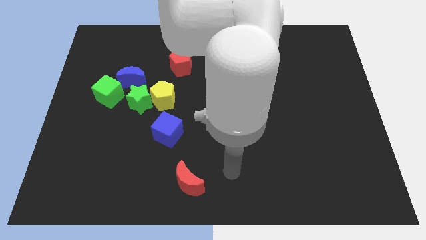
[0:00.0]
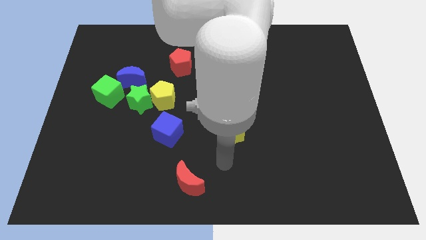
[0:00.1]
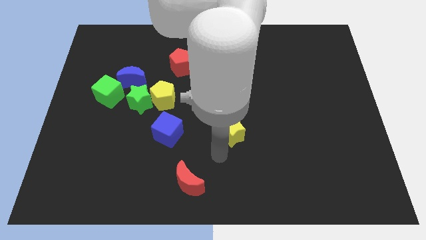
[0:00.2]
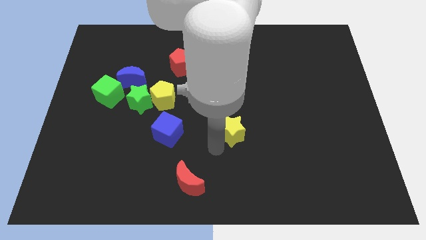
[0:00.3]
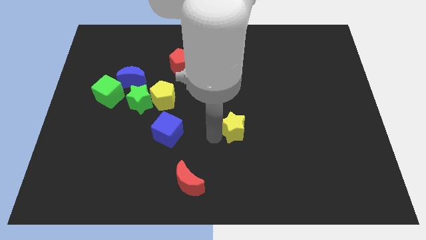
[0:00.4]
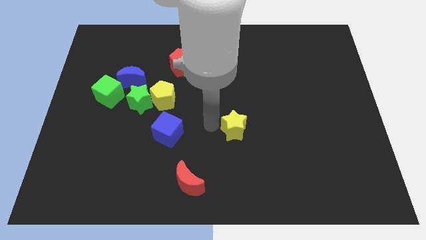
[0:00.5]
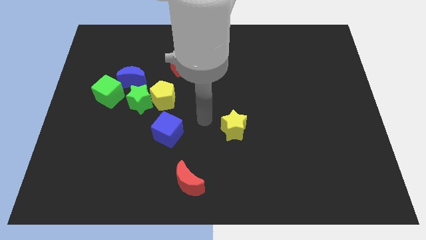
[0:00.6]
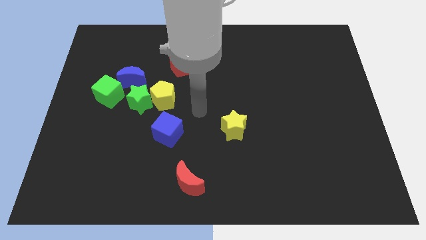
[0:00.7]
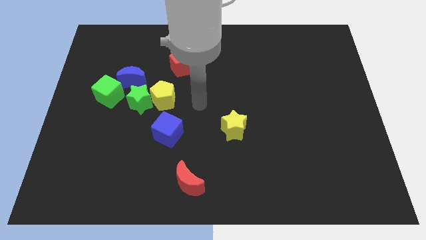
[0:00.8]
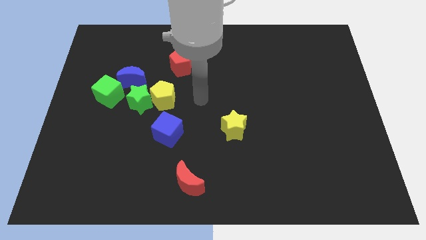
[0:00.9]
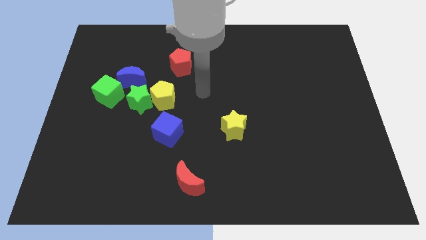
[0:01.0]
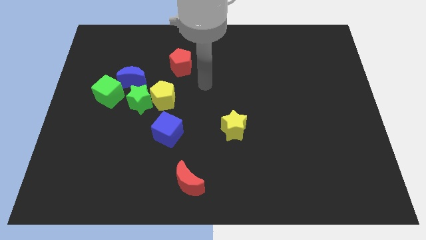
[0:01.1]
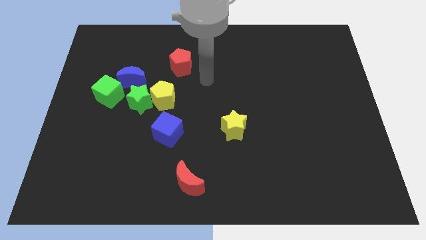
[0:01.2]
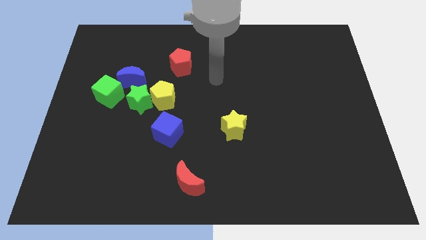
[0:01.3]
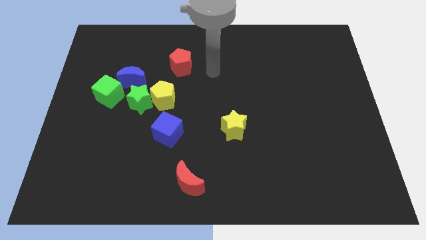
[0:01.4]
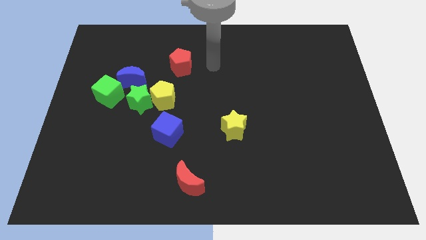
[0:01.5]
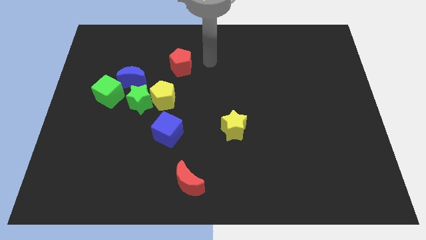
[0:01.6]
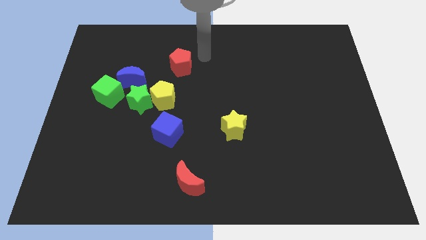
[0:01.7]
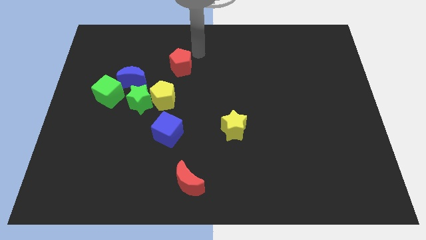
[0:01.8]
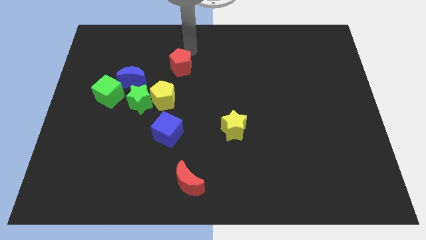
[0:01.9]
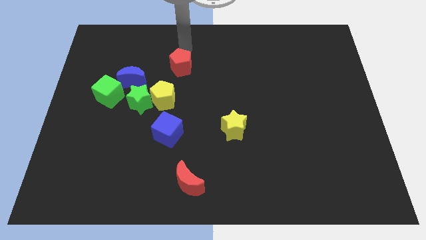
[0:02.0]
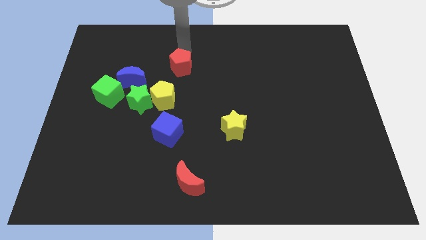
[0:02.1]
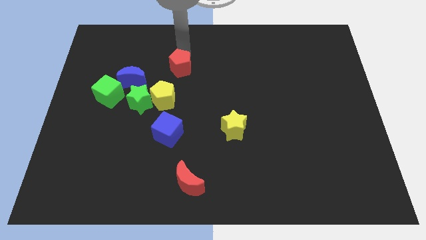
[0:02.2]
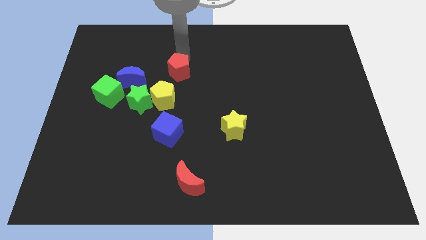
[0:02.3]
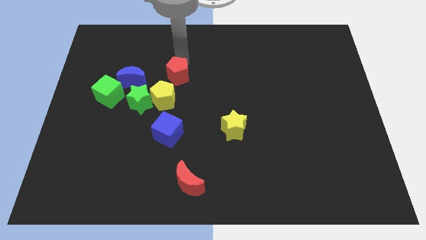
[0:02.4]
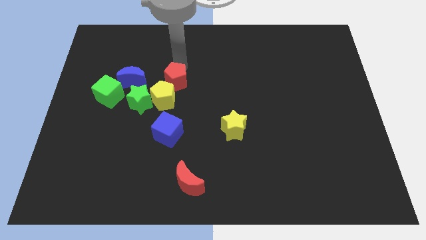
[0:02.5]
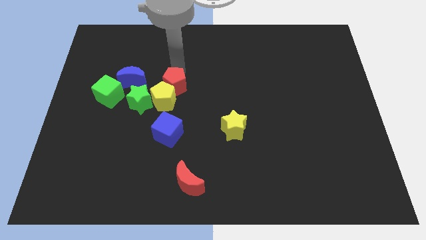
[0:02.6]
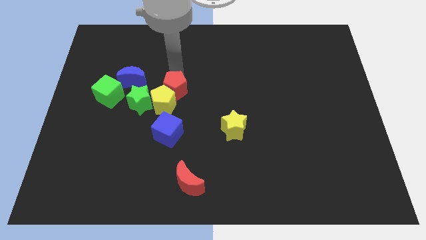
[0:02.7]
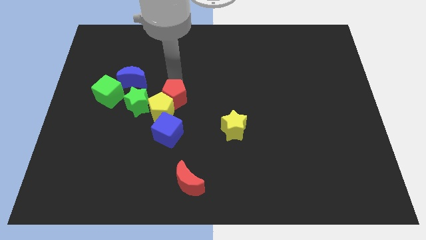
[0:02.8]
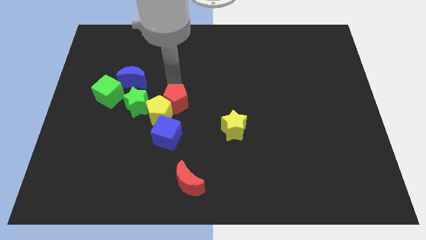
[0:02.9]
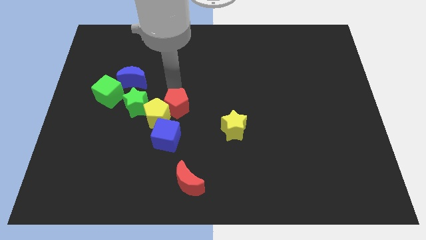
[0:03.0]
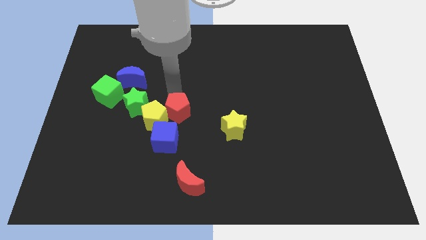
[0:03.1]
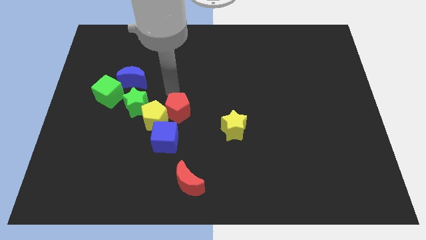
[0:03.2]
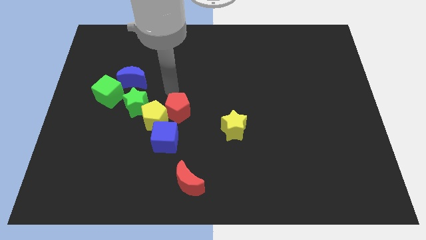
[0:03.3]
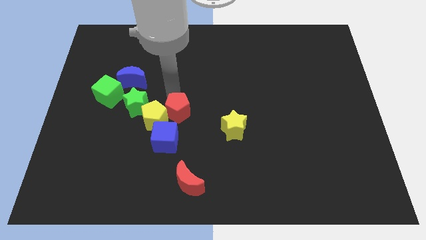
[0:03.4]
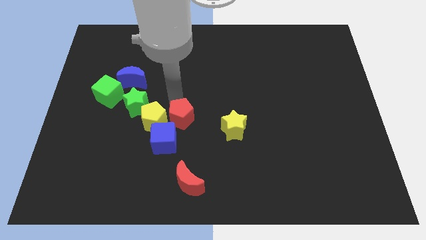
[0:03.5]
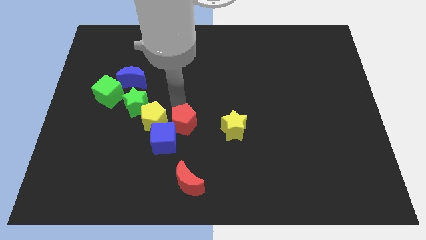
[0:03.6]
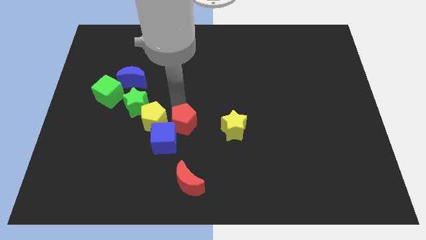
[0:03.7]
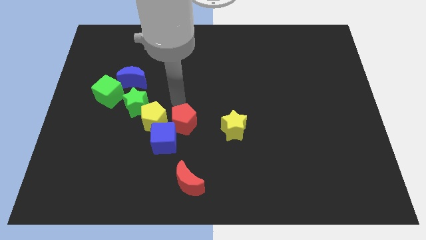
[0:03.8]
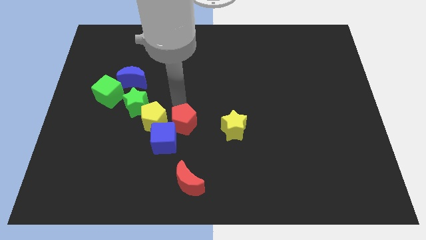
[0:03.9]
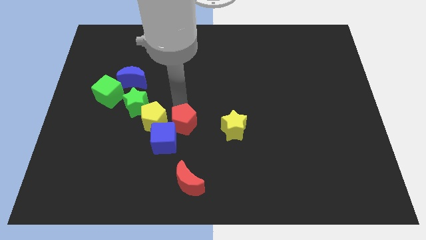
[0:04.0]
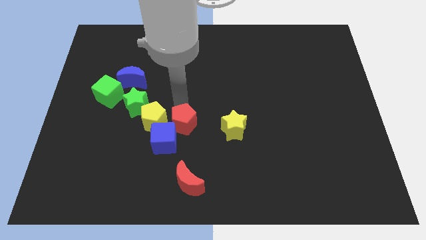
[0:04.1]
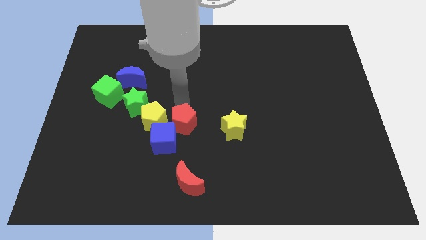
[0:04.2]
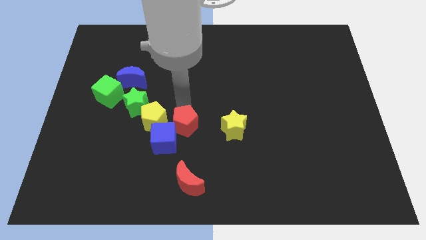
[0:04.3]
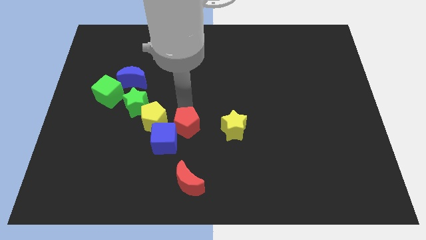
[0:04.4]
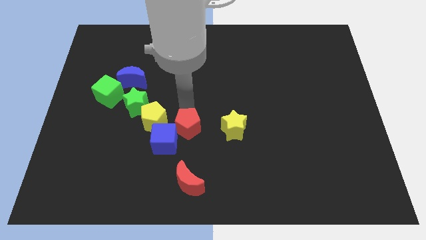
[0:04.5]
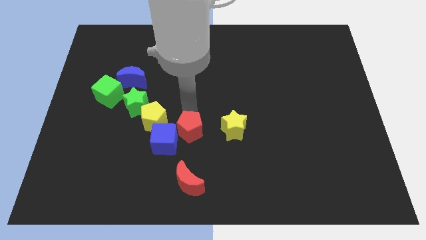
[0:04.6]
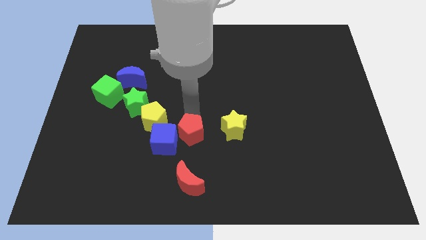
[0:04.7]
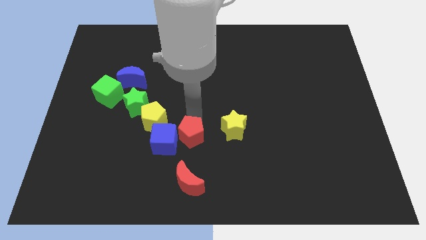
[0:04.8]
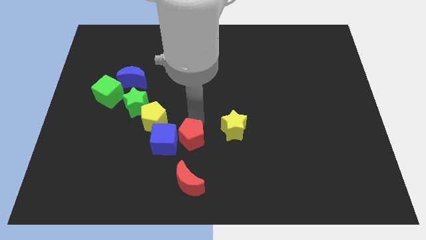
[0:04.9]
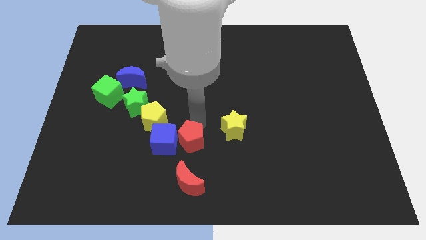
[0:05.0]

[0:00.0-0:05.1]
push the red pentagon to the bottom right side of the blue cube

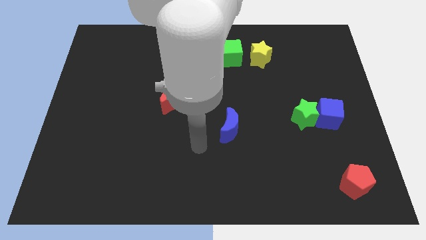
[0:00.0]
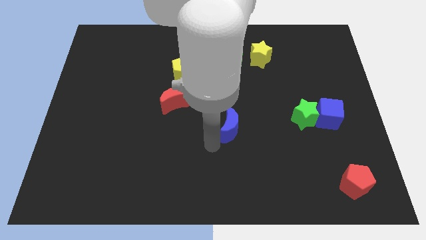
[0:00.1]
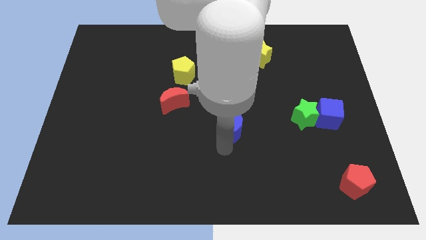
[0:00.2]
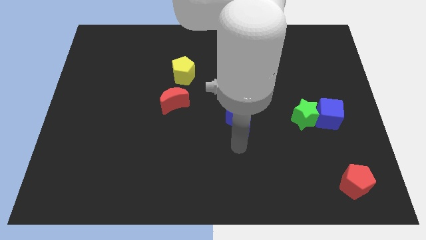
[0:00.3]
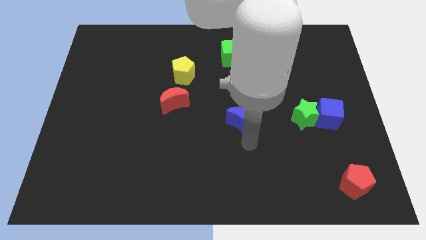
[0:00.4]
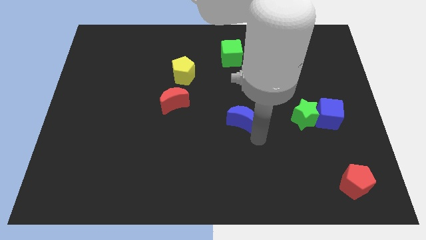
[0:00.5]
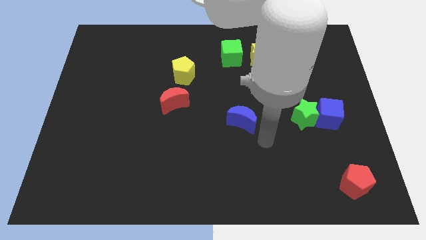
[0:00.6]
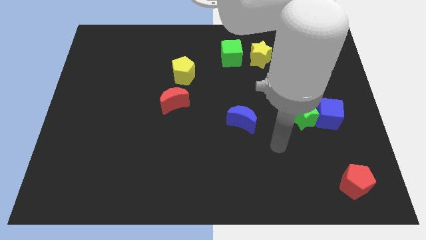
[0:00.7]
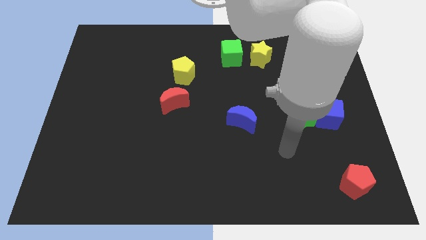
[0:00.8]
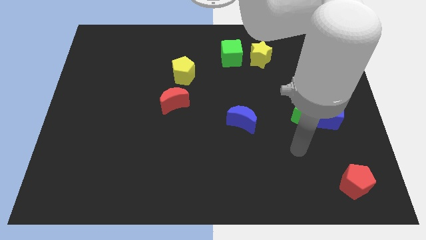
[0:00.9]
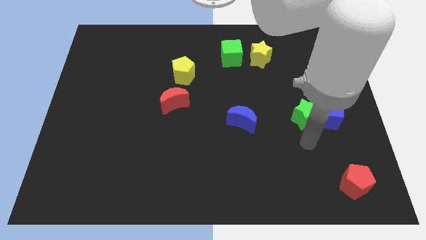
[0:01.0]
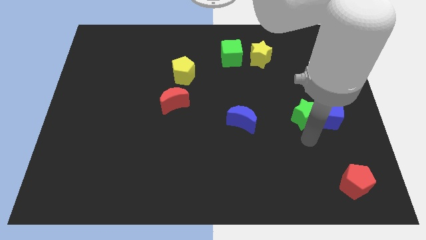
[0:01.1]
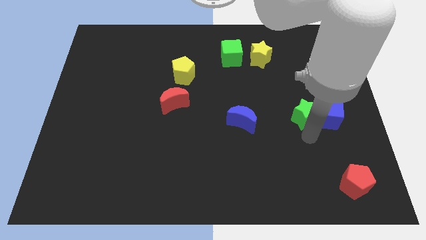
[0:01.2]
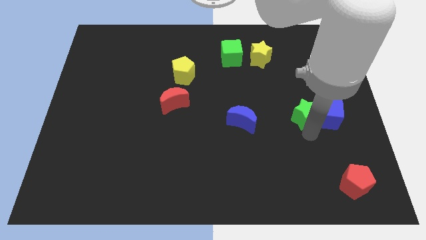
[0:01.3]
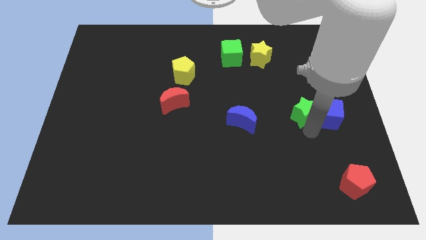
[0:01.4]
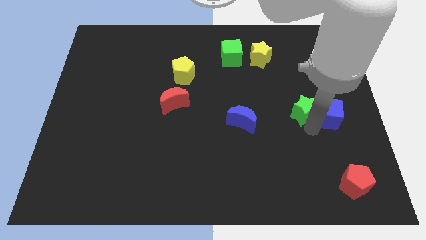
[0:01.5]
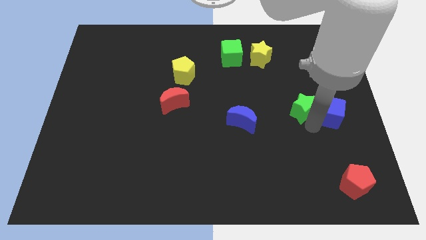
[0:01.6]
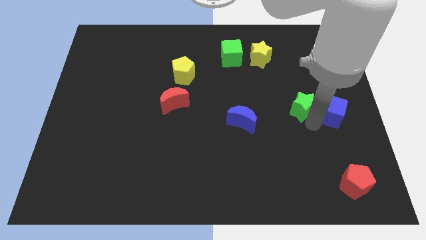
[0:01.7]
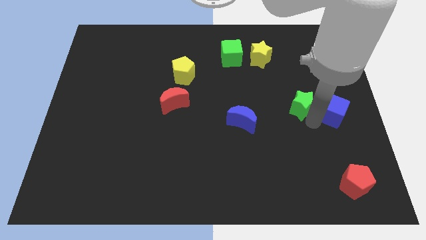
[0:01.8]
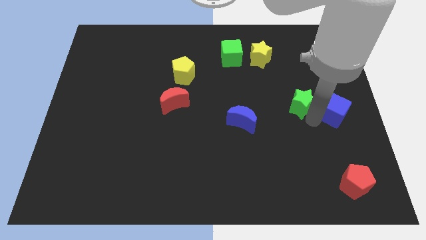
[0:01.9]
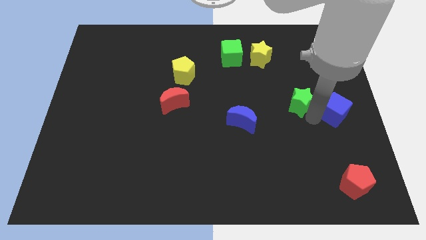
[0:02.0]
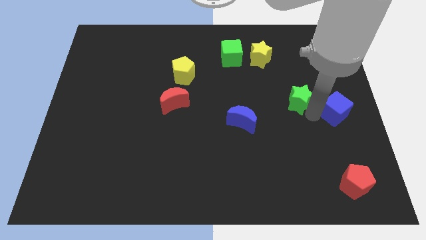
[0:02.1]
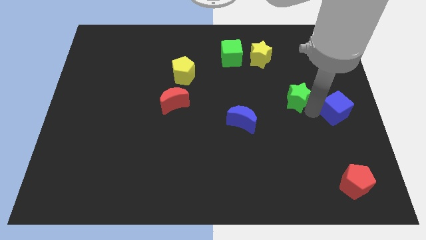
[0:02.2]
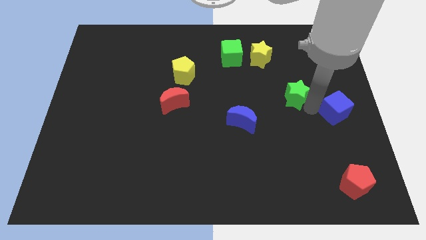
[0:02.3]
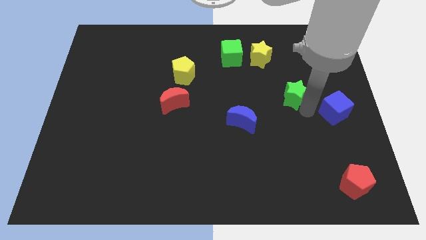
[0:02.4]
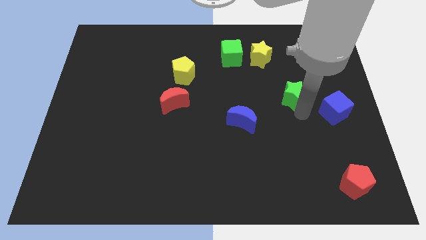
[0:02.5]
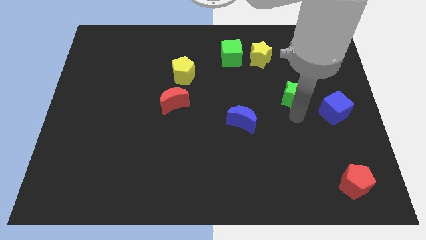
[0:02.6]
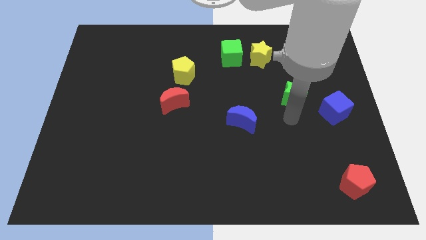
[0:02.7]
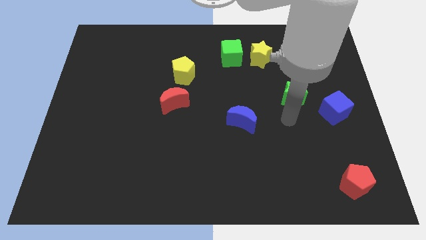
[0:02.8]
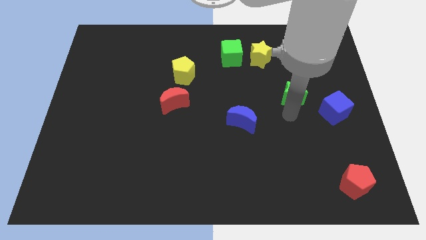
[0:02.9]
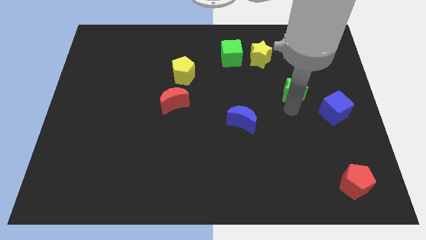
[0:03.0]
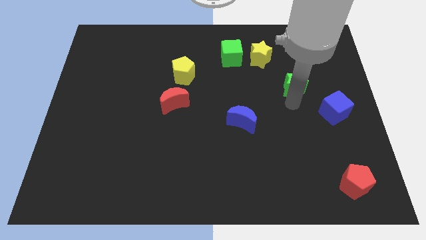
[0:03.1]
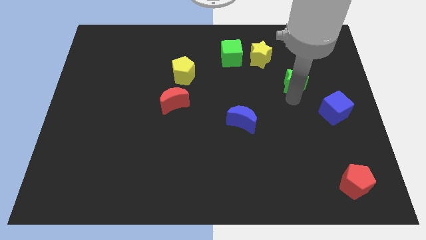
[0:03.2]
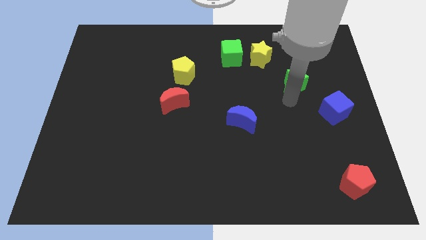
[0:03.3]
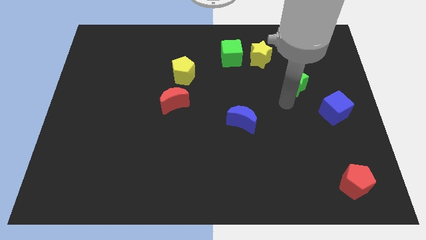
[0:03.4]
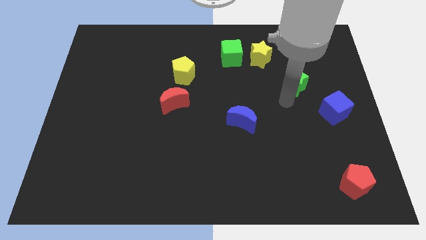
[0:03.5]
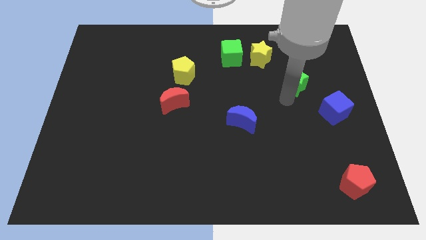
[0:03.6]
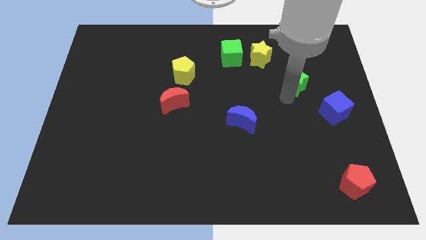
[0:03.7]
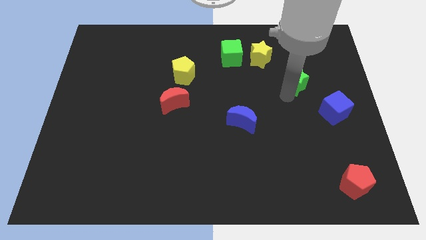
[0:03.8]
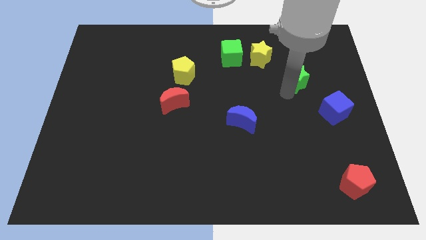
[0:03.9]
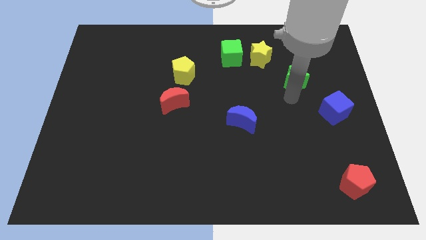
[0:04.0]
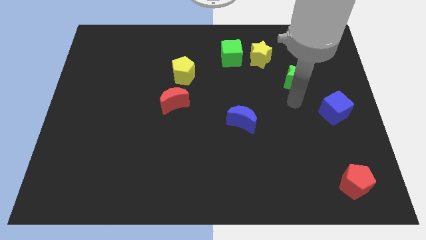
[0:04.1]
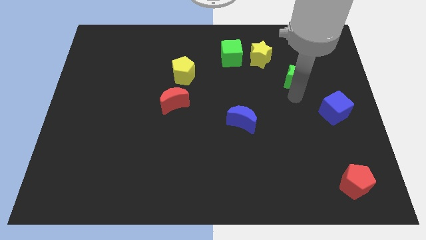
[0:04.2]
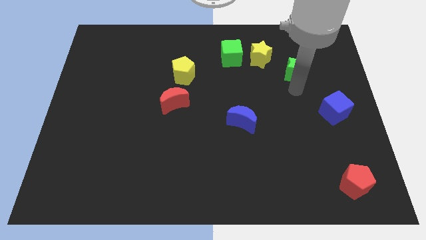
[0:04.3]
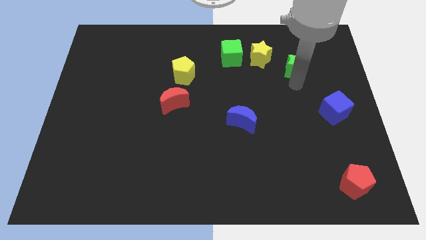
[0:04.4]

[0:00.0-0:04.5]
push the green star just right of the yellow star
